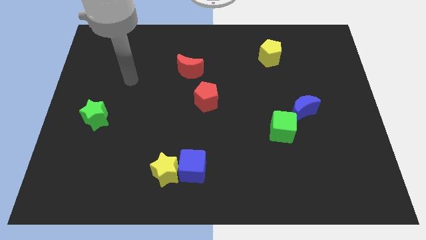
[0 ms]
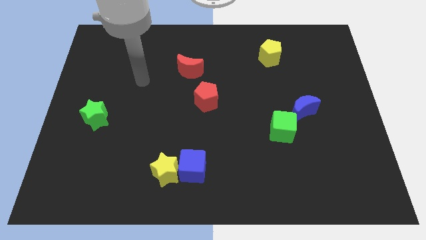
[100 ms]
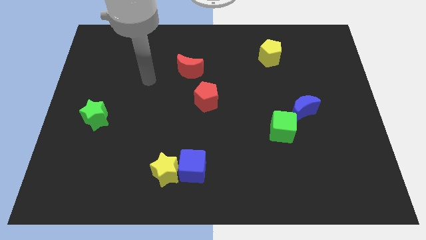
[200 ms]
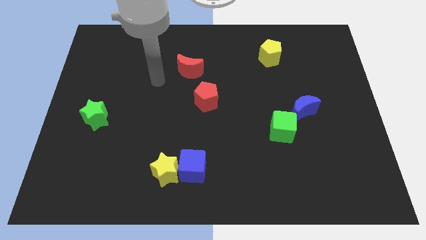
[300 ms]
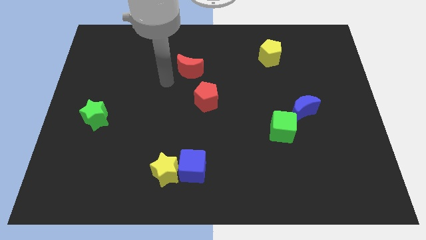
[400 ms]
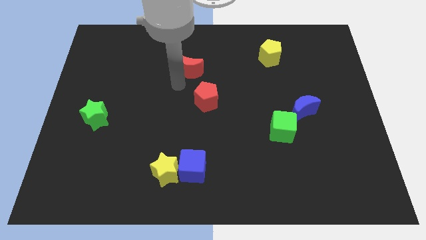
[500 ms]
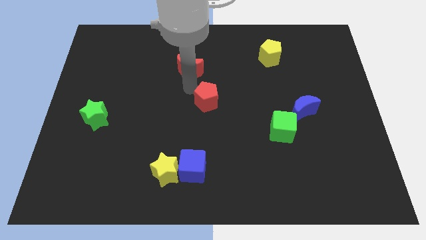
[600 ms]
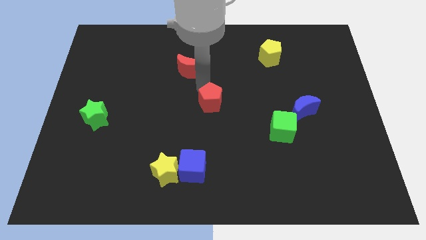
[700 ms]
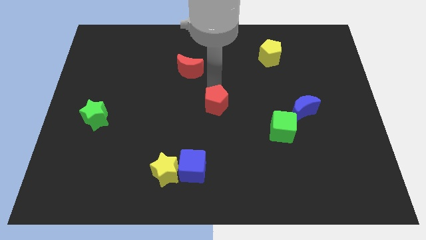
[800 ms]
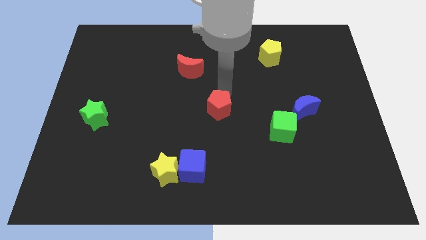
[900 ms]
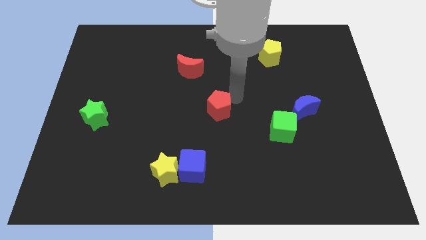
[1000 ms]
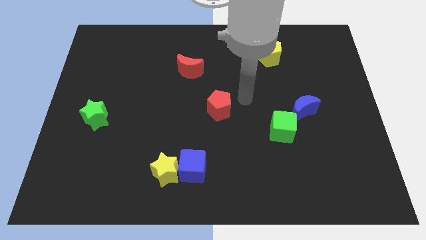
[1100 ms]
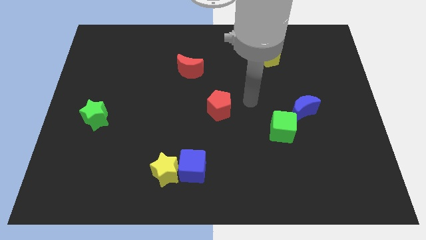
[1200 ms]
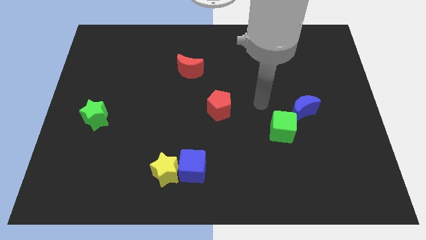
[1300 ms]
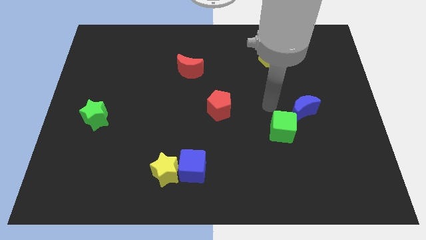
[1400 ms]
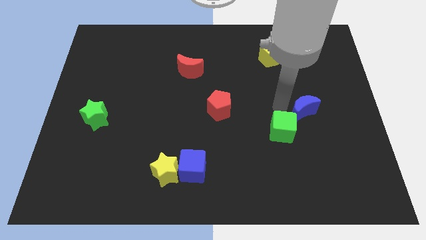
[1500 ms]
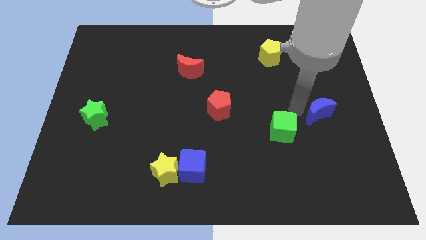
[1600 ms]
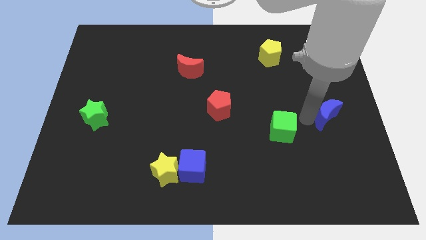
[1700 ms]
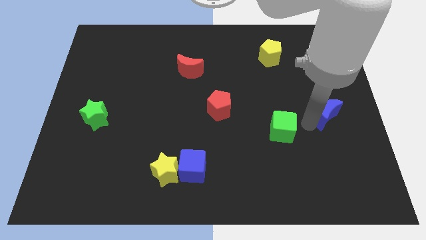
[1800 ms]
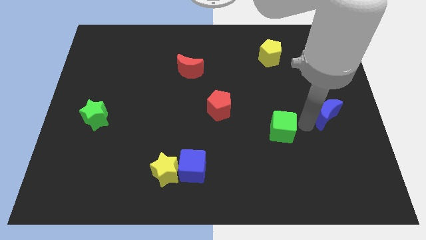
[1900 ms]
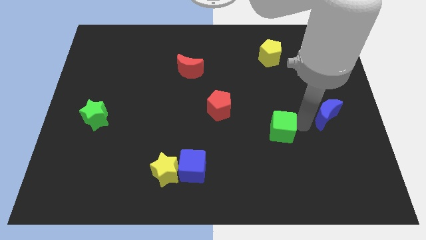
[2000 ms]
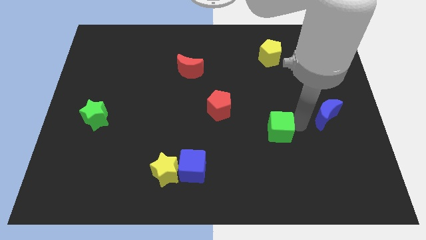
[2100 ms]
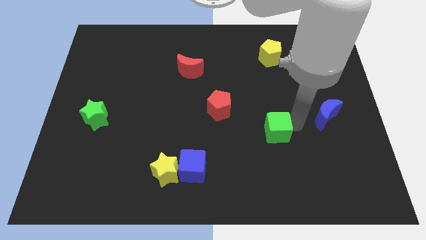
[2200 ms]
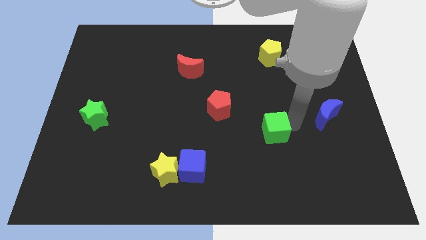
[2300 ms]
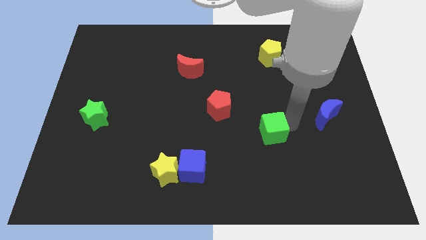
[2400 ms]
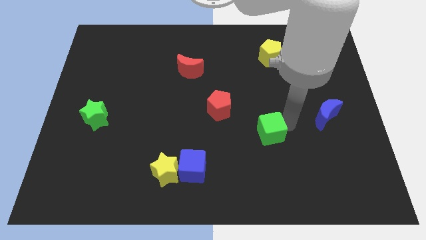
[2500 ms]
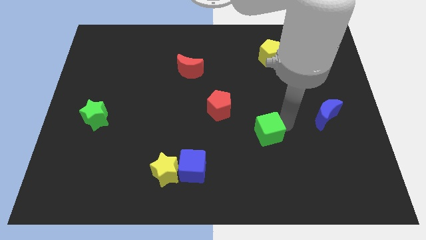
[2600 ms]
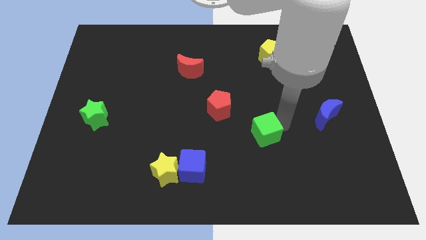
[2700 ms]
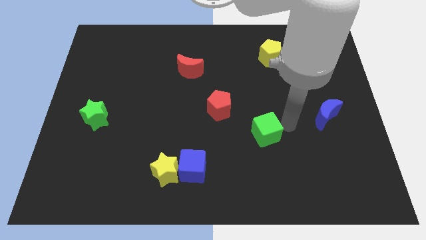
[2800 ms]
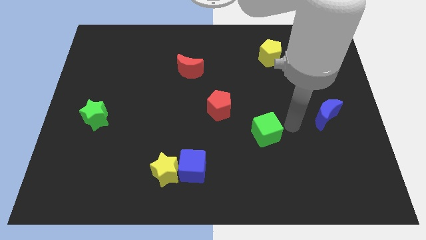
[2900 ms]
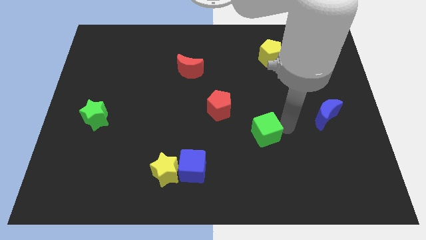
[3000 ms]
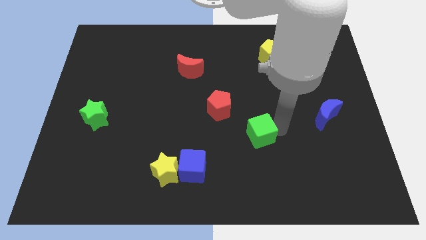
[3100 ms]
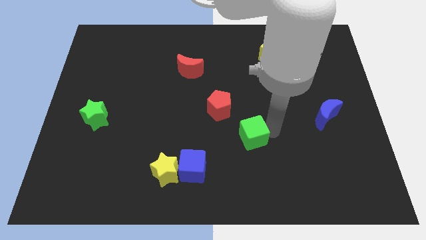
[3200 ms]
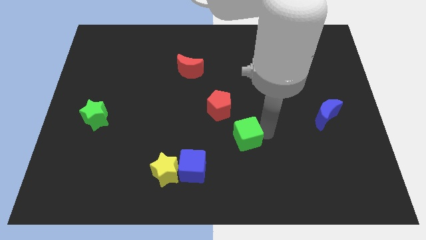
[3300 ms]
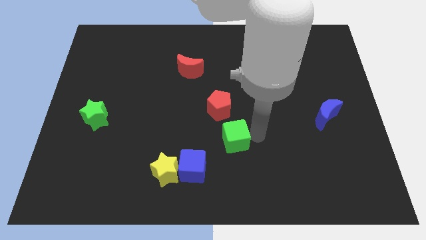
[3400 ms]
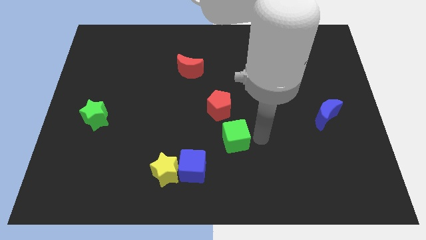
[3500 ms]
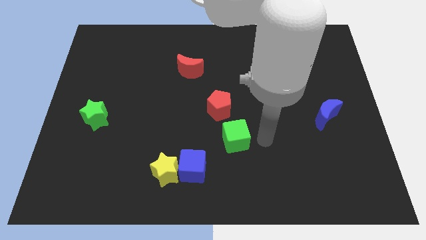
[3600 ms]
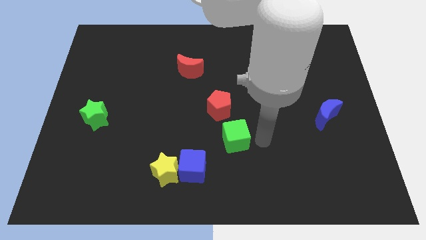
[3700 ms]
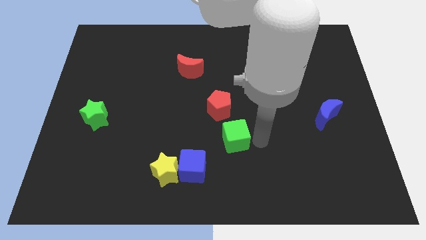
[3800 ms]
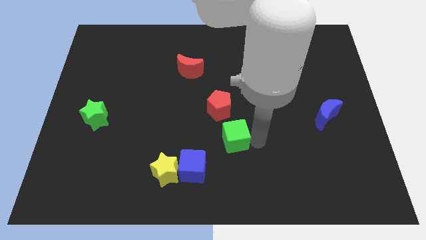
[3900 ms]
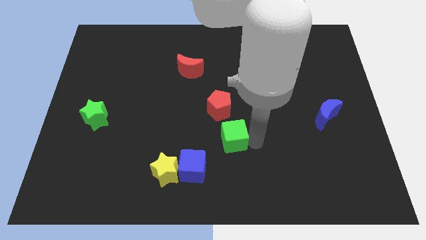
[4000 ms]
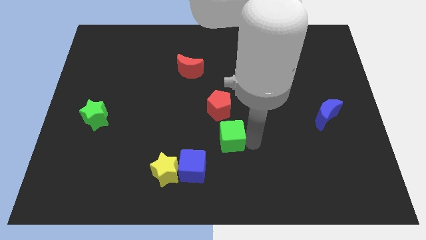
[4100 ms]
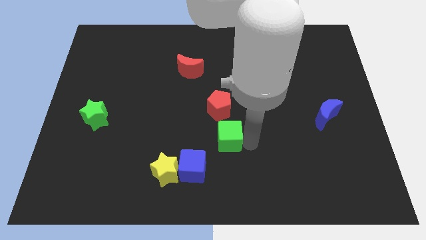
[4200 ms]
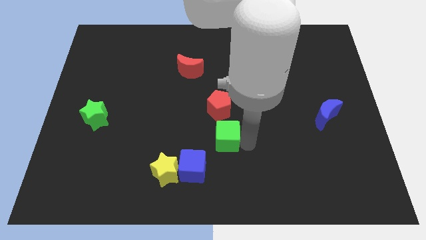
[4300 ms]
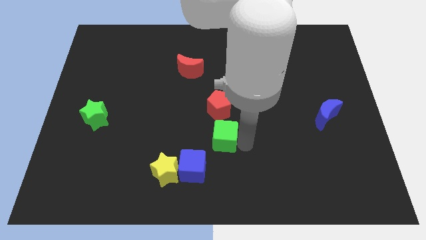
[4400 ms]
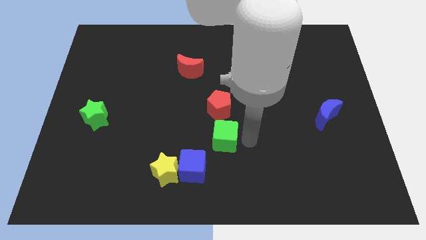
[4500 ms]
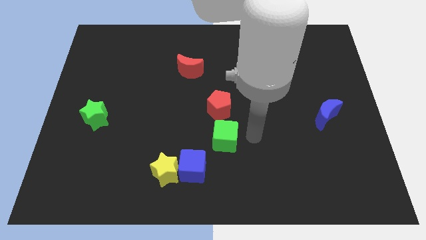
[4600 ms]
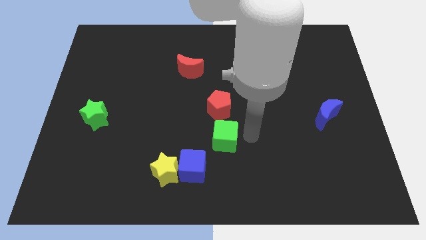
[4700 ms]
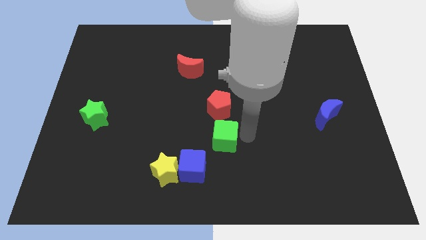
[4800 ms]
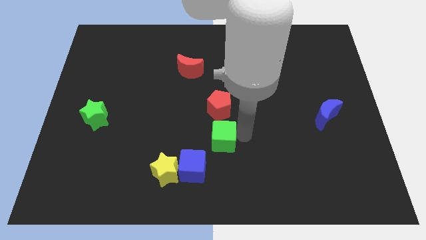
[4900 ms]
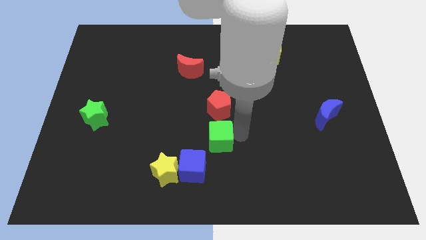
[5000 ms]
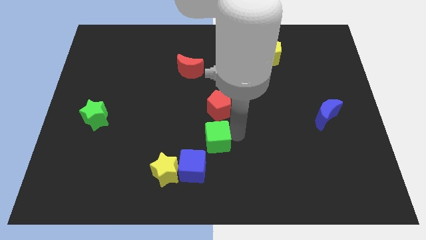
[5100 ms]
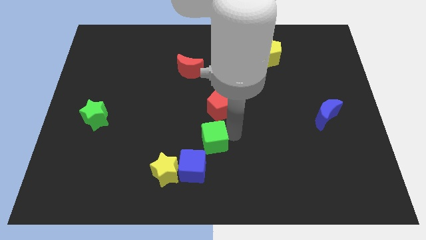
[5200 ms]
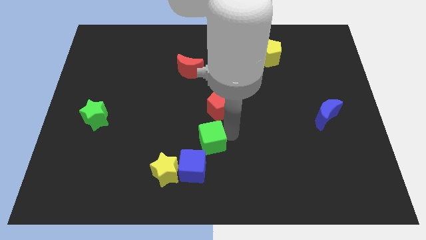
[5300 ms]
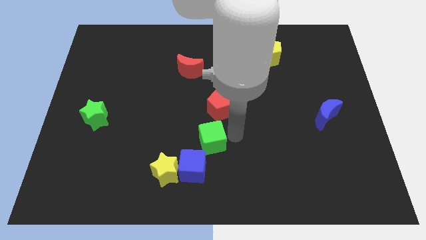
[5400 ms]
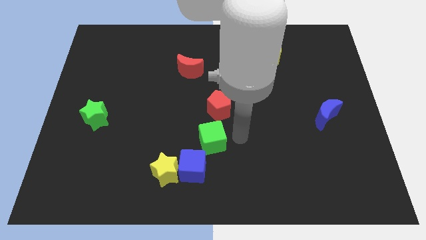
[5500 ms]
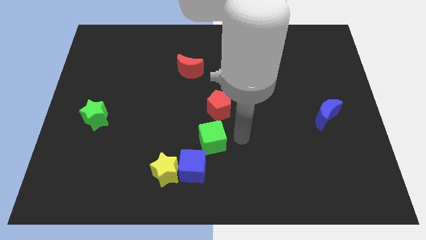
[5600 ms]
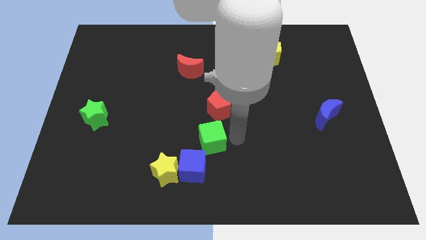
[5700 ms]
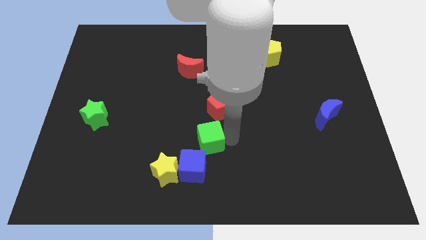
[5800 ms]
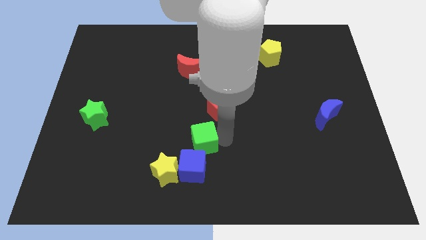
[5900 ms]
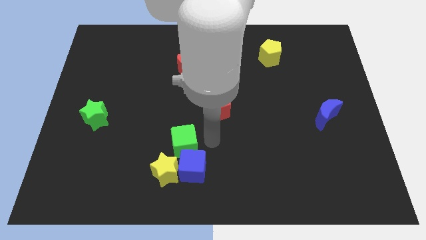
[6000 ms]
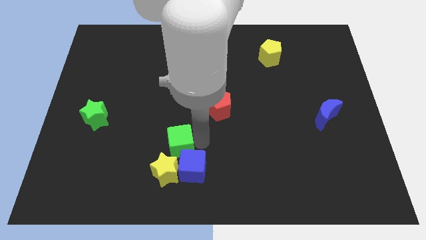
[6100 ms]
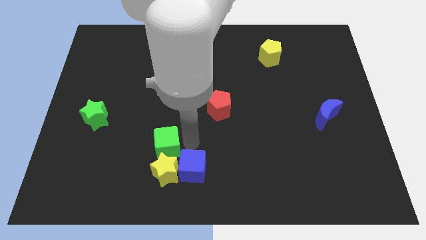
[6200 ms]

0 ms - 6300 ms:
move the green cube diagonally up and to the left of the yellow star
